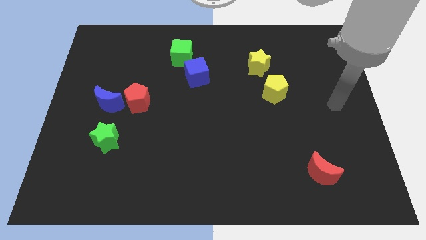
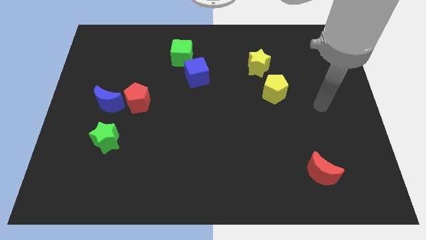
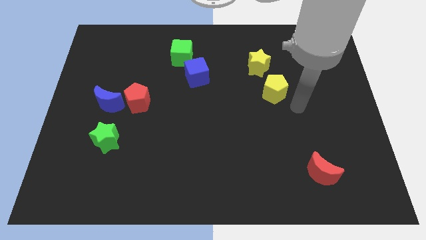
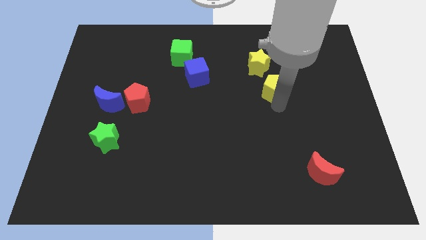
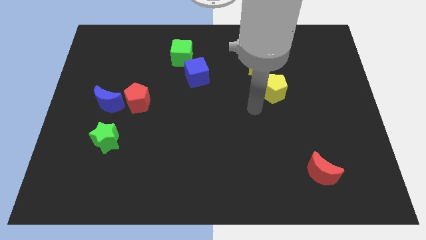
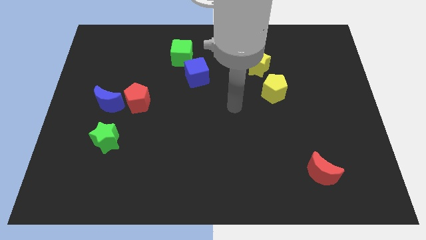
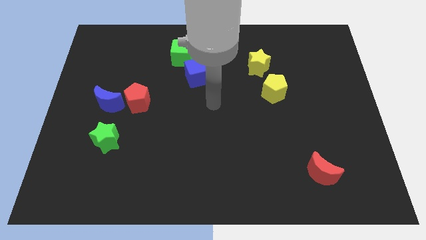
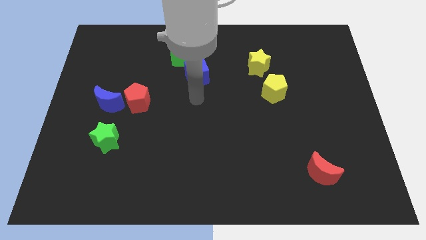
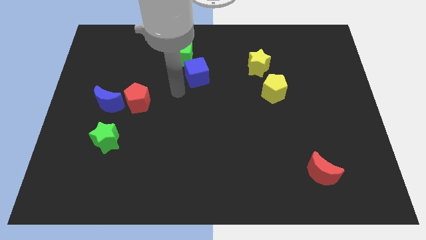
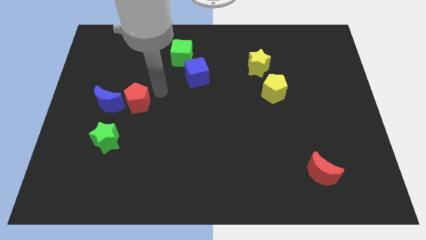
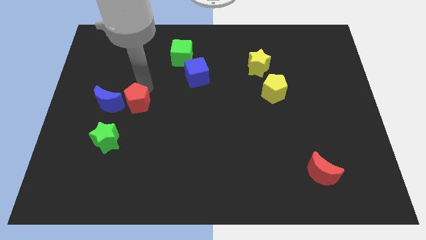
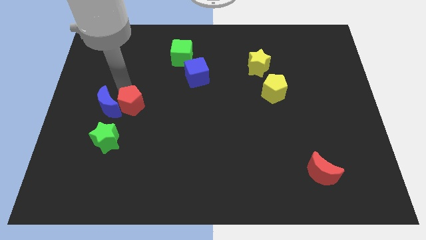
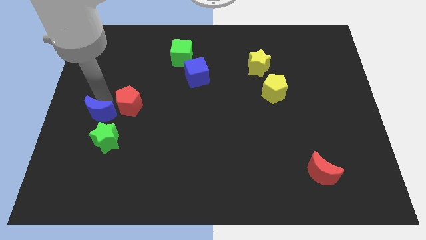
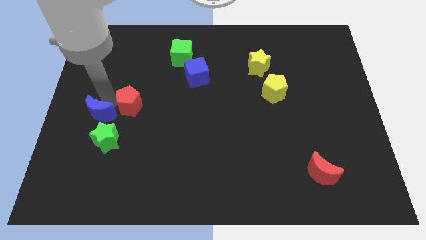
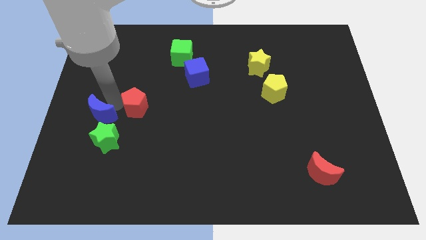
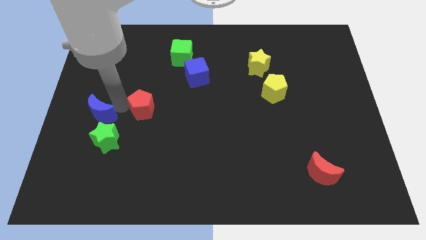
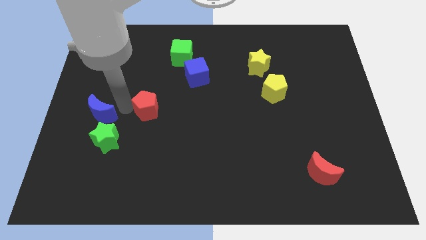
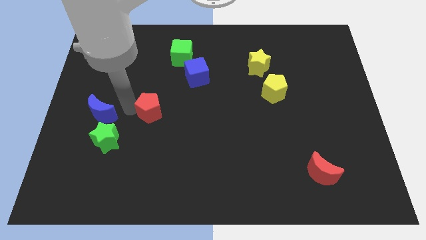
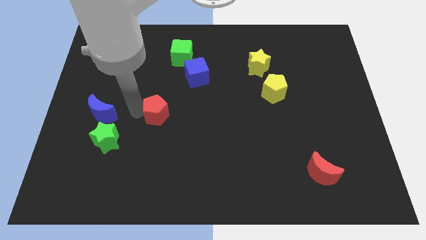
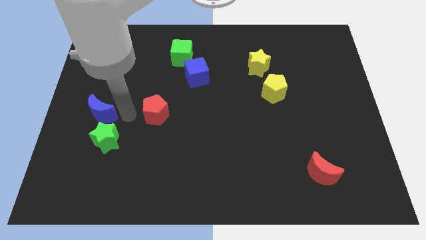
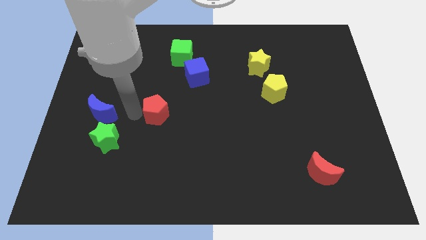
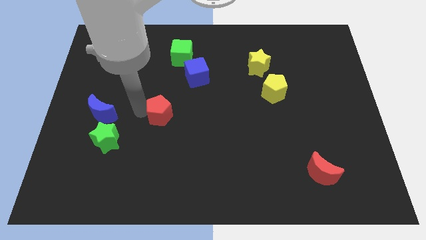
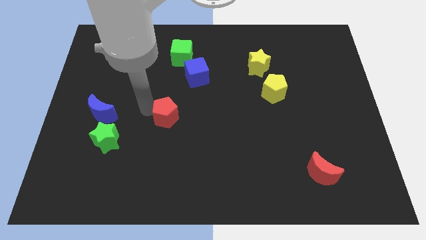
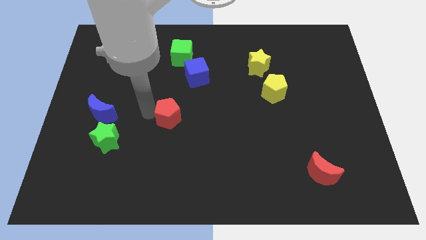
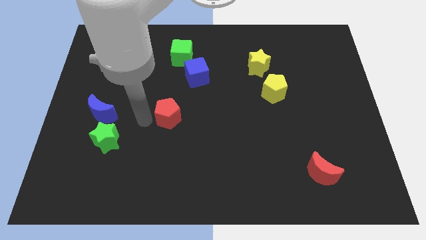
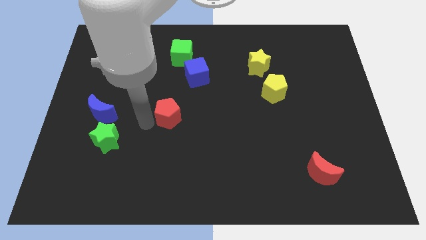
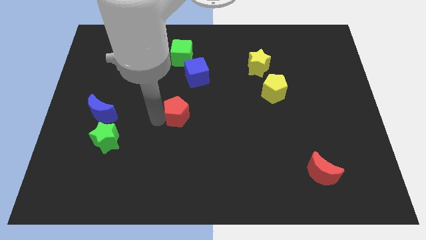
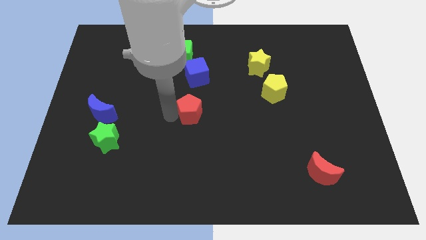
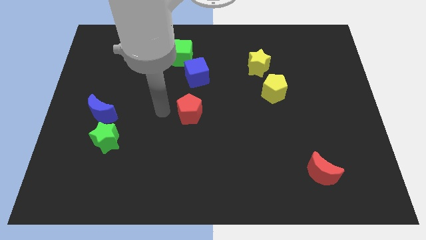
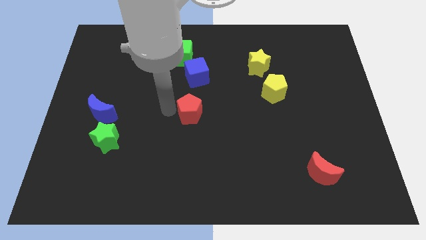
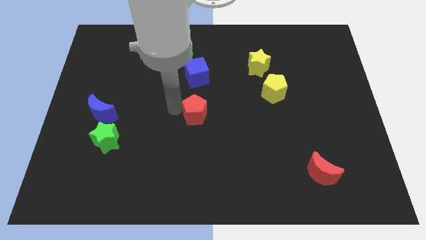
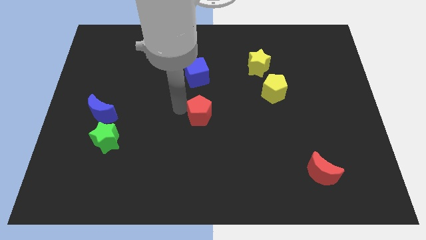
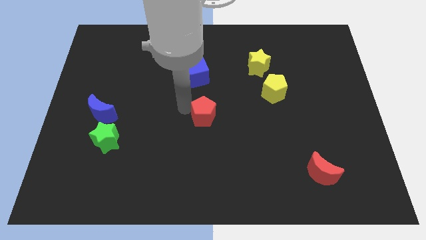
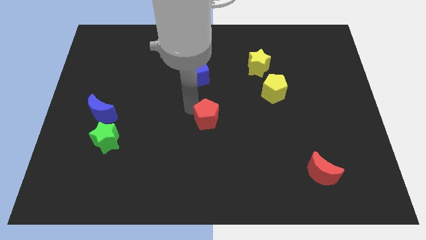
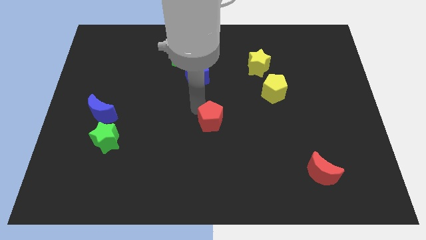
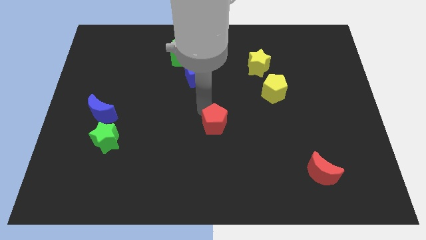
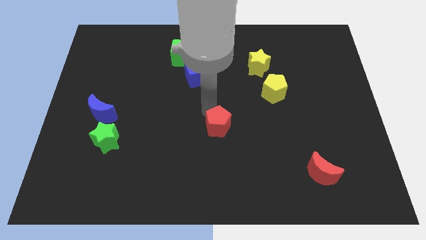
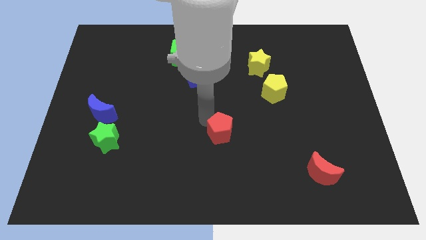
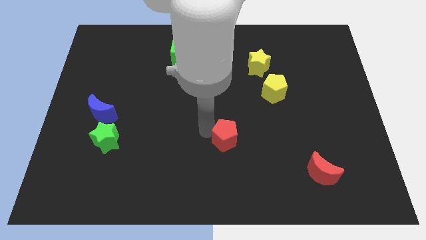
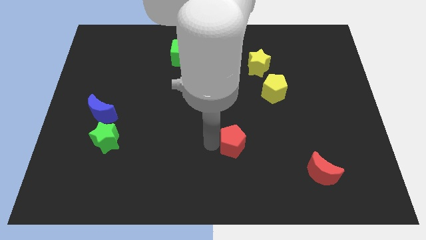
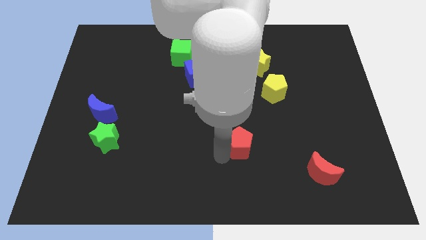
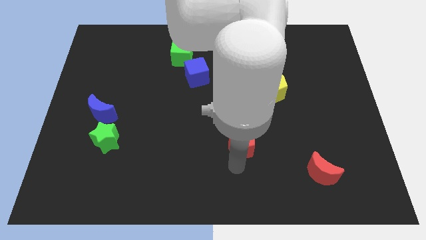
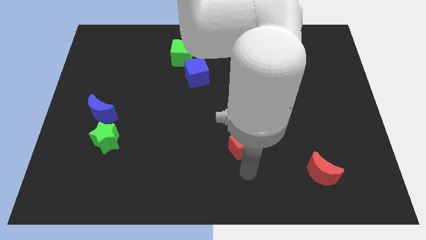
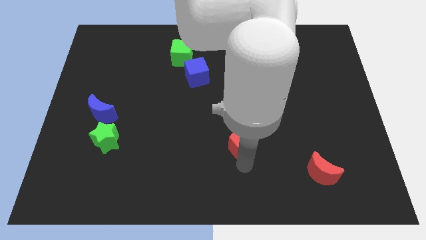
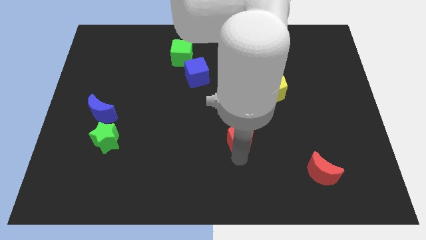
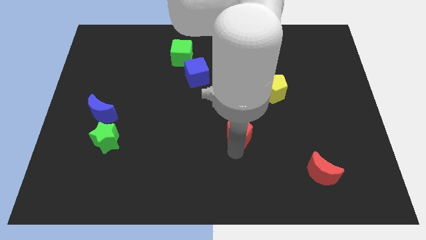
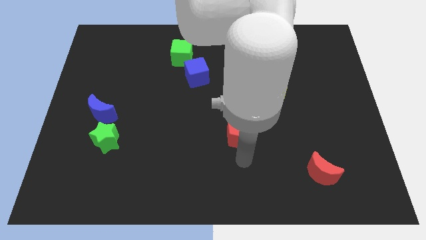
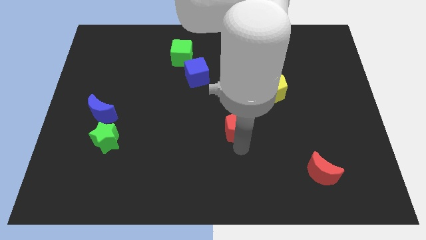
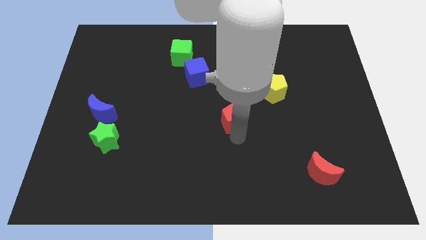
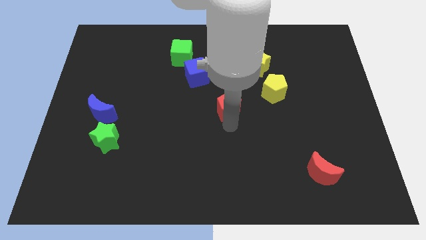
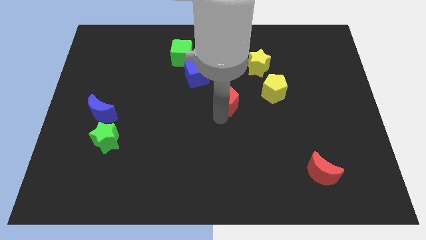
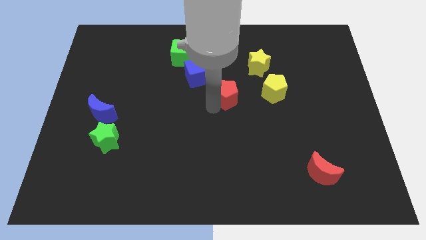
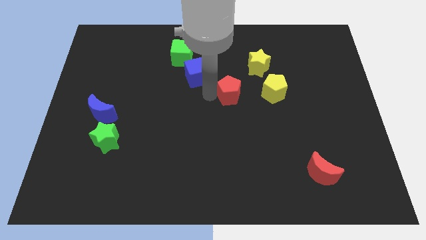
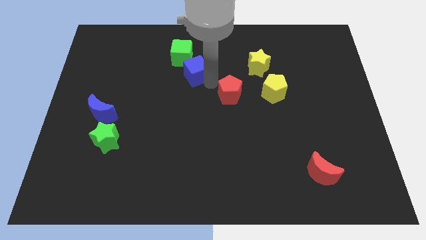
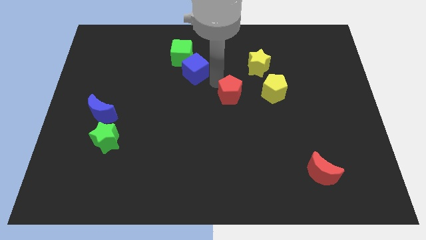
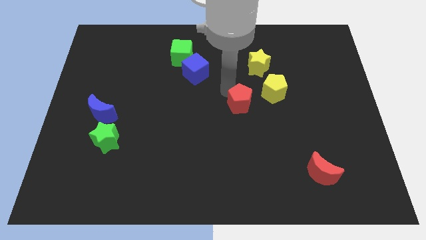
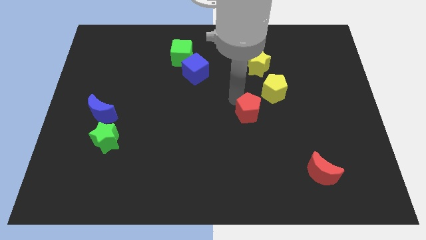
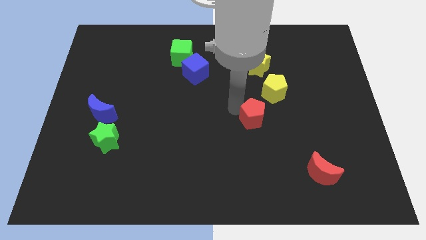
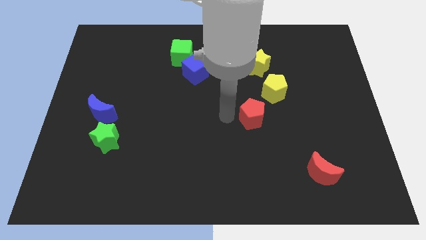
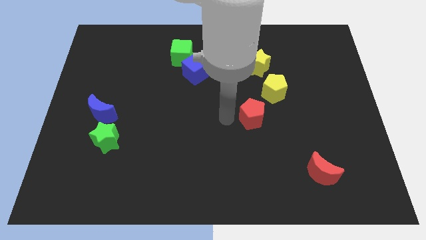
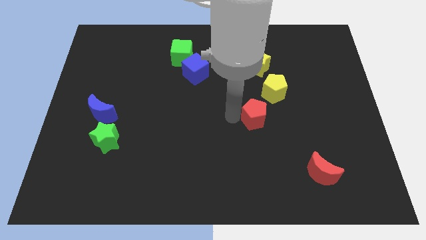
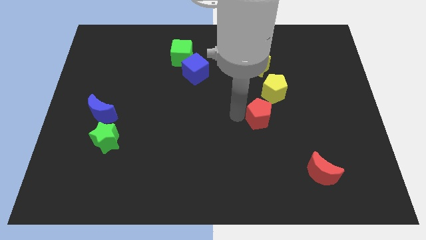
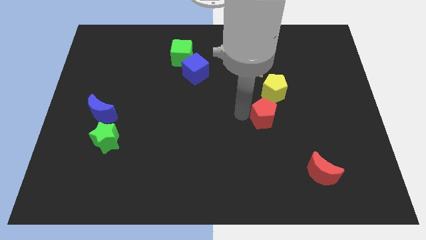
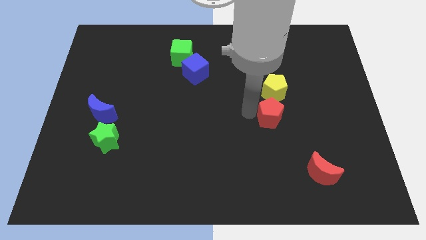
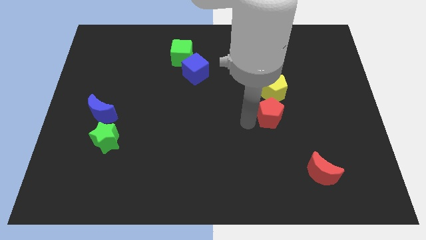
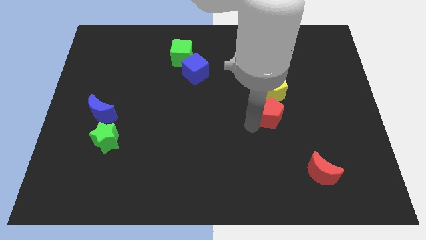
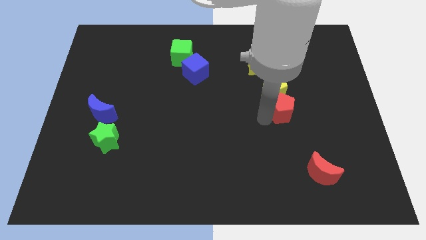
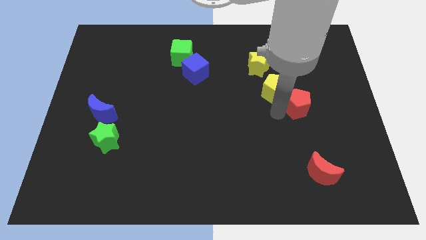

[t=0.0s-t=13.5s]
put the red pentagon right of the yellow pentagon

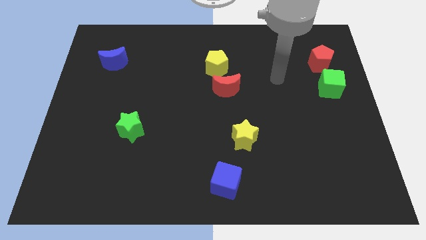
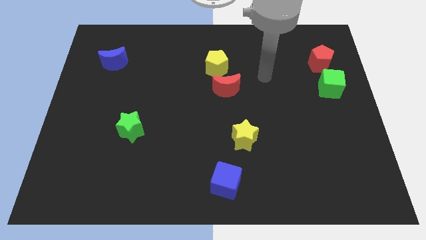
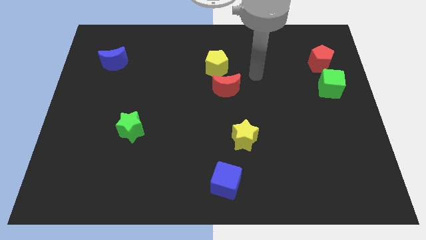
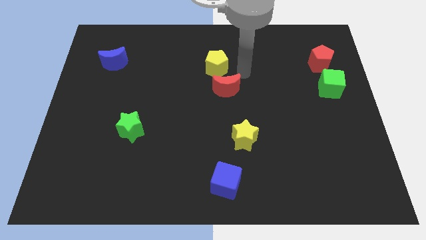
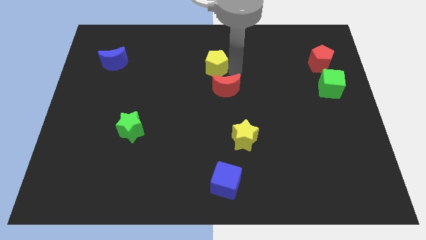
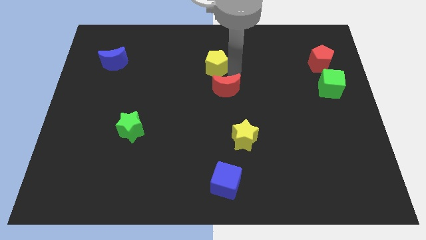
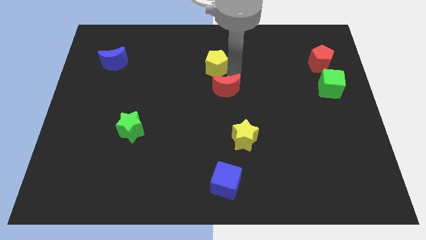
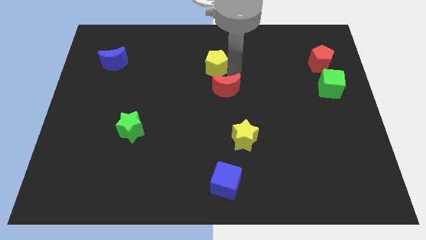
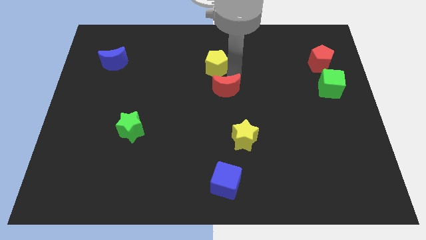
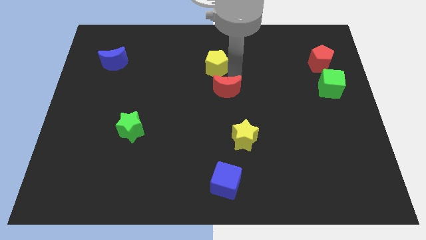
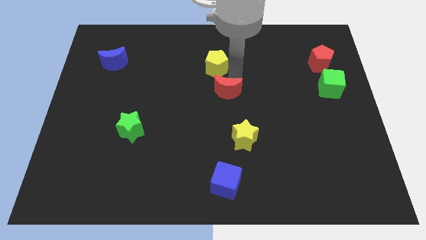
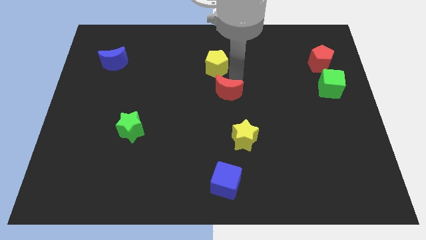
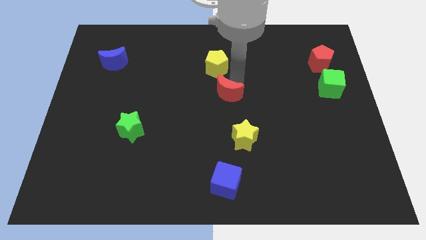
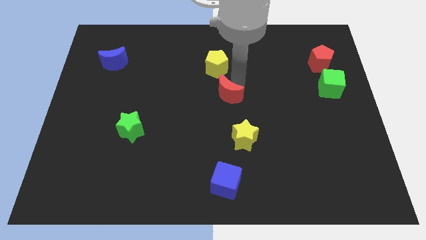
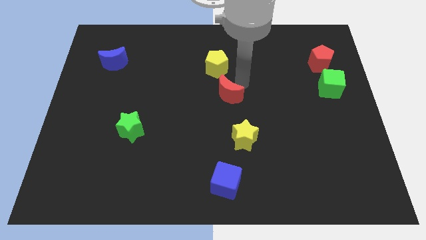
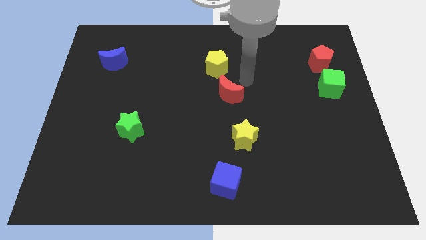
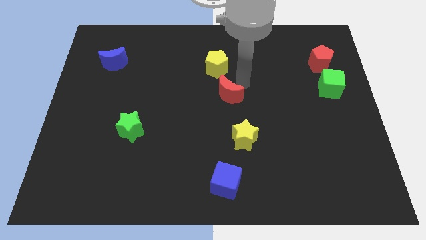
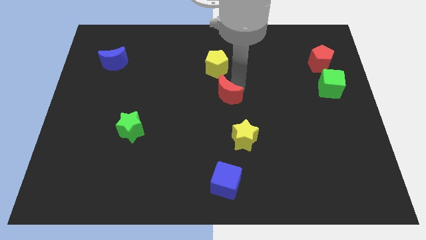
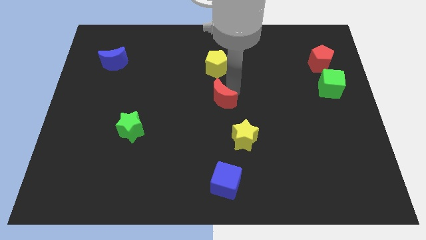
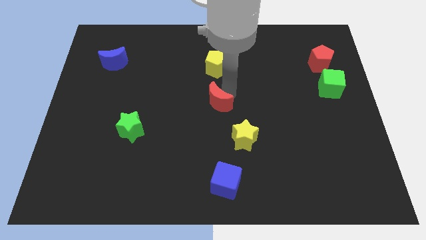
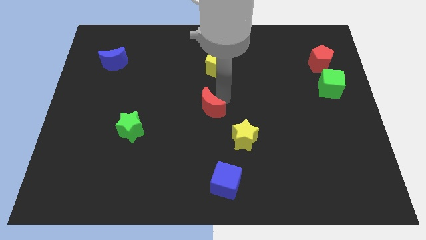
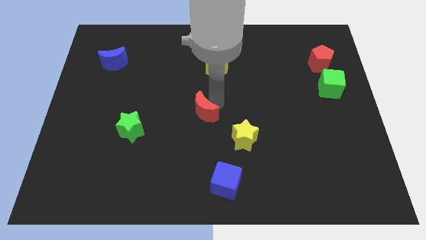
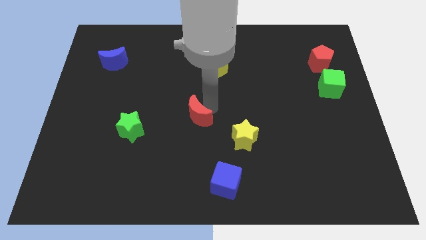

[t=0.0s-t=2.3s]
put the red moon to the right side of the green star
